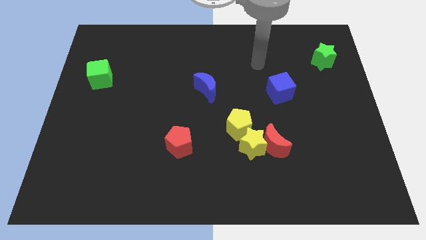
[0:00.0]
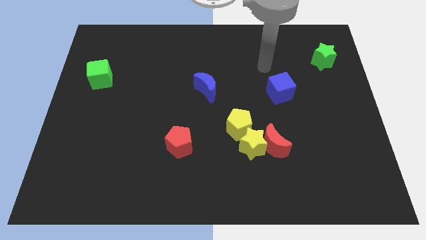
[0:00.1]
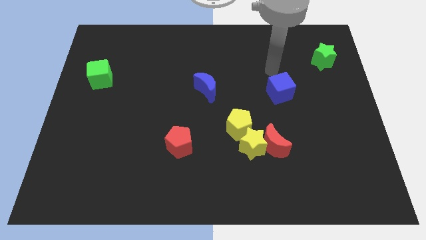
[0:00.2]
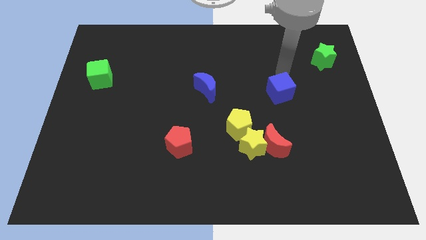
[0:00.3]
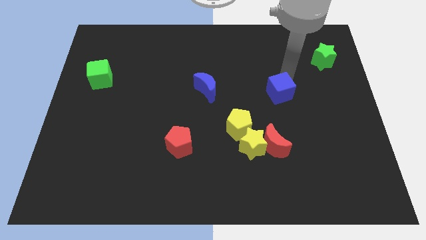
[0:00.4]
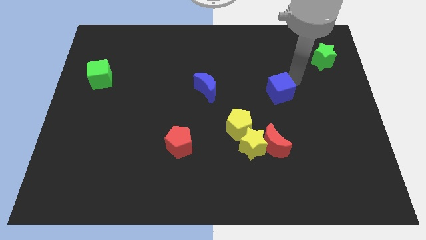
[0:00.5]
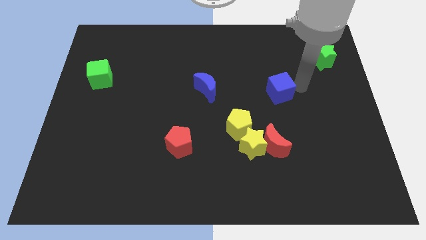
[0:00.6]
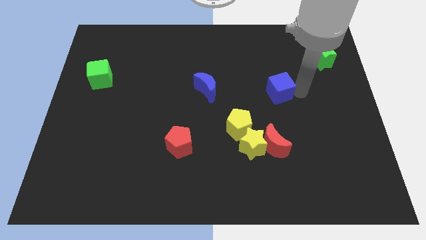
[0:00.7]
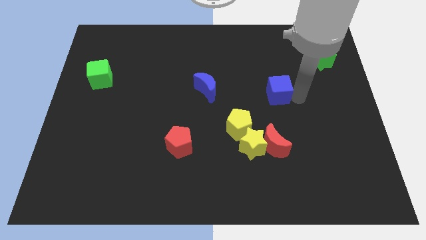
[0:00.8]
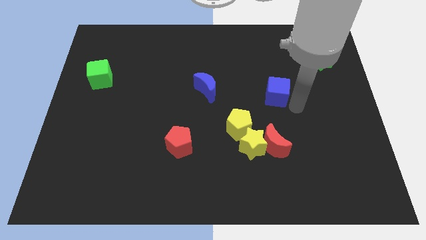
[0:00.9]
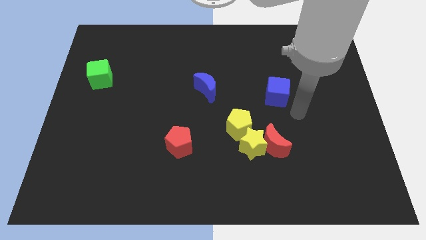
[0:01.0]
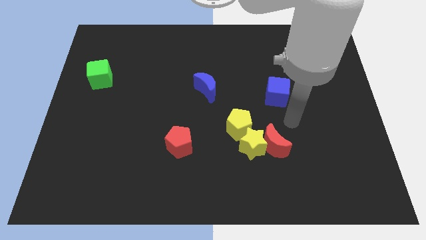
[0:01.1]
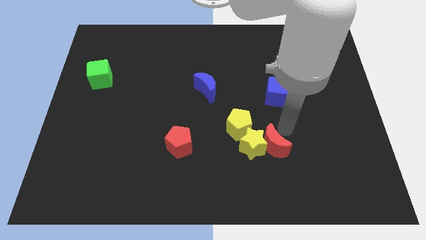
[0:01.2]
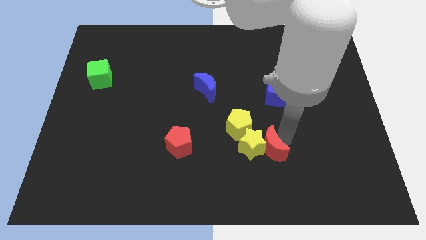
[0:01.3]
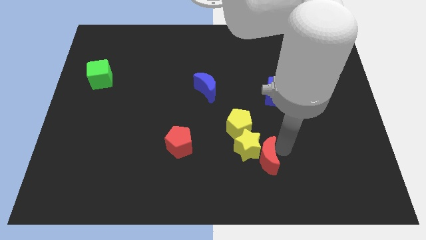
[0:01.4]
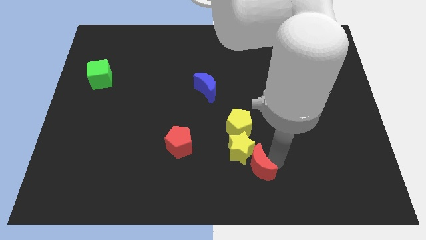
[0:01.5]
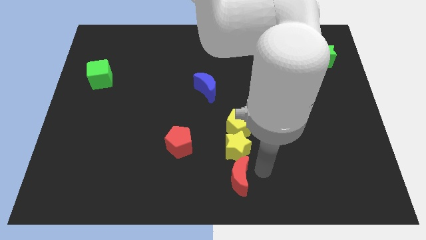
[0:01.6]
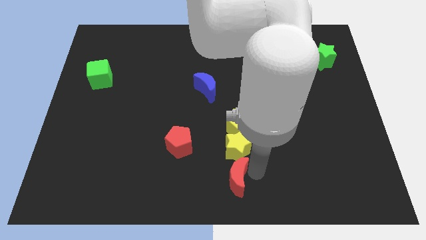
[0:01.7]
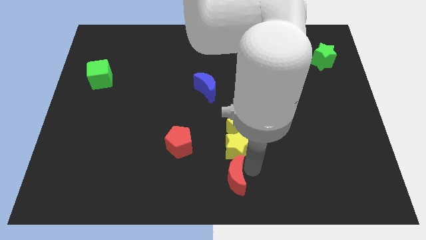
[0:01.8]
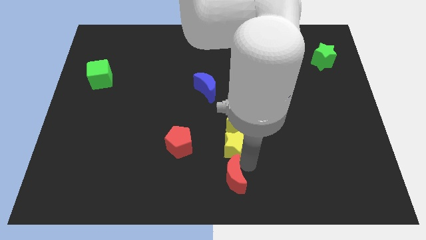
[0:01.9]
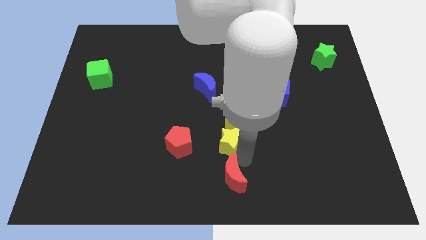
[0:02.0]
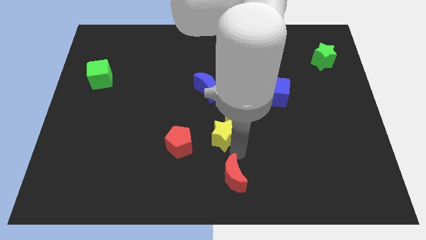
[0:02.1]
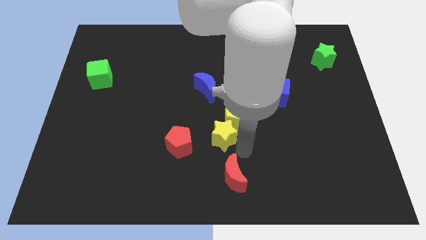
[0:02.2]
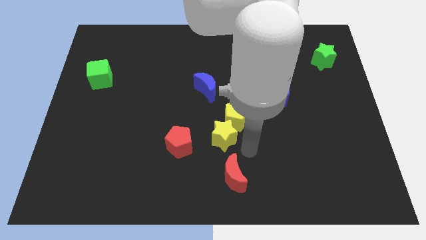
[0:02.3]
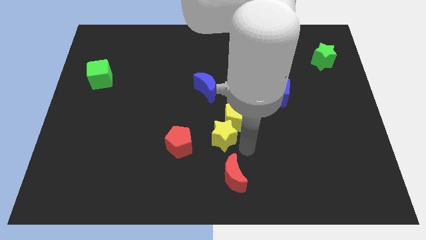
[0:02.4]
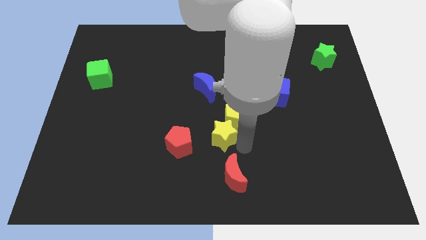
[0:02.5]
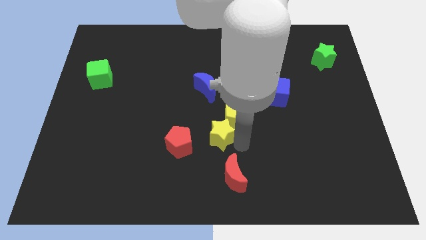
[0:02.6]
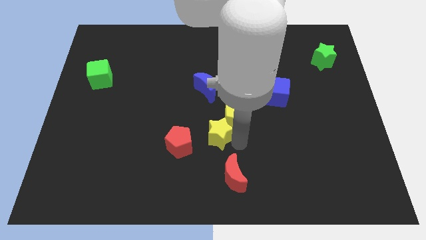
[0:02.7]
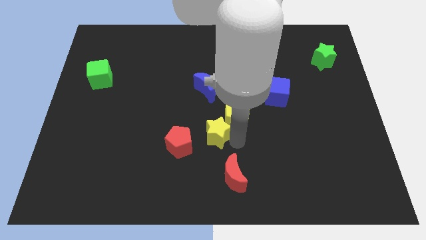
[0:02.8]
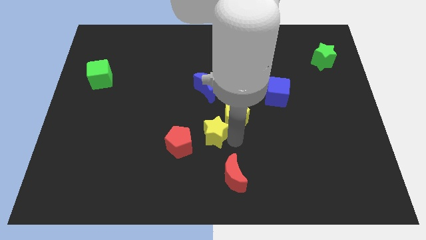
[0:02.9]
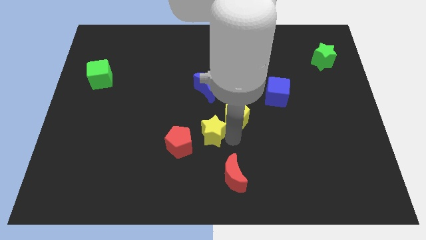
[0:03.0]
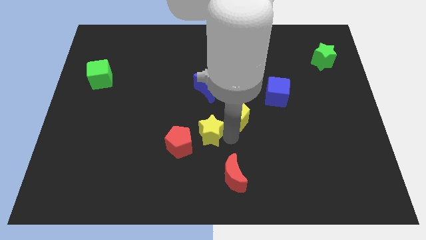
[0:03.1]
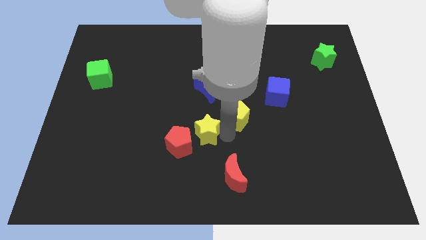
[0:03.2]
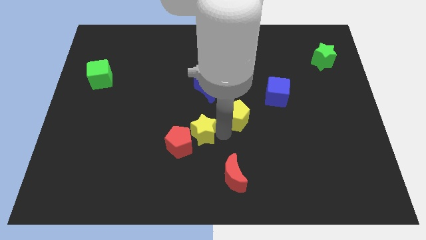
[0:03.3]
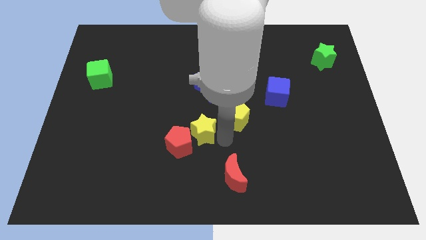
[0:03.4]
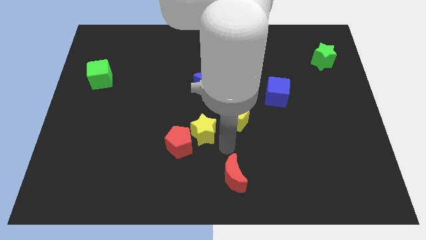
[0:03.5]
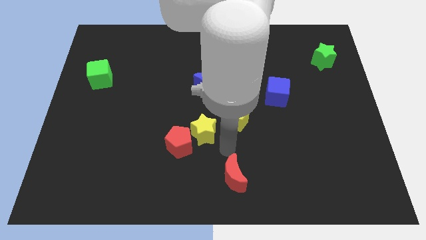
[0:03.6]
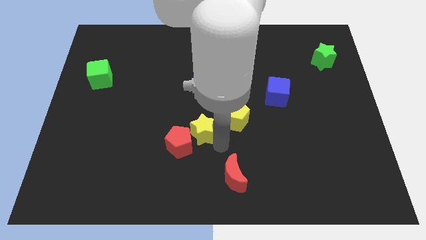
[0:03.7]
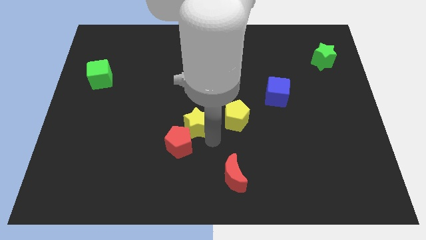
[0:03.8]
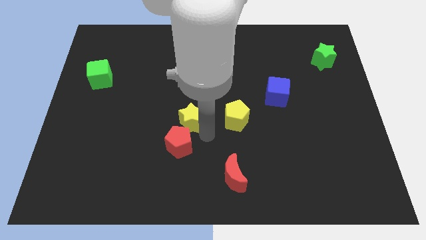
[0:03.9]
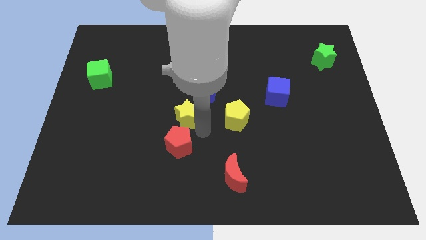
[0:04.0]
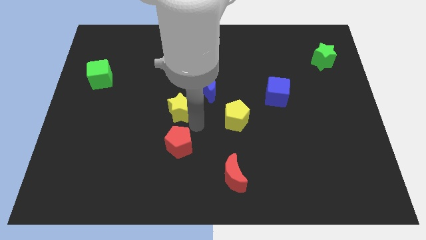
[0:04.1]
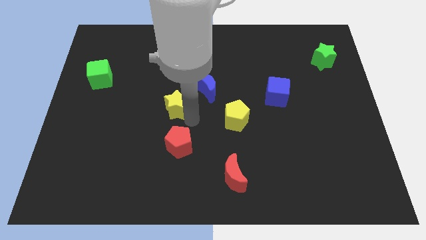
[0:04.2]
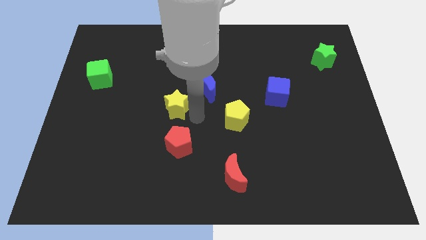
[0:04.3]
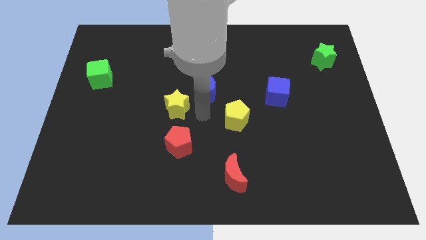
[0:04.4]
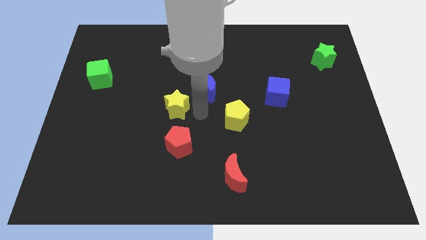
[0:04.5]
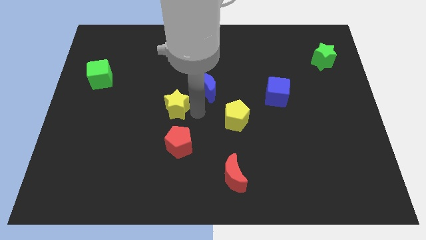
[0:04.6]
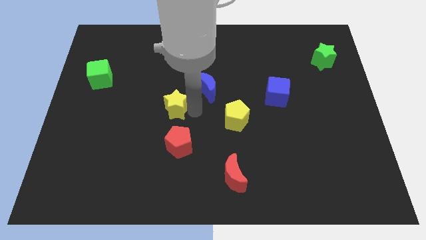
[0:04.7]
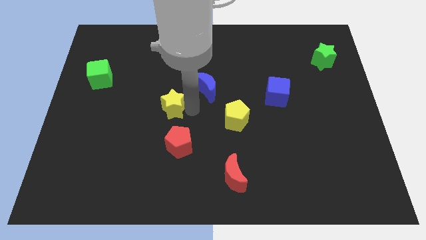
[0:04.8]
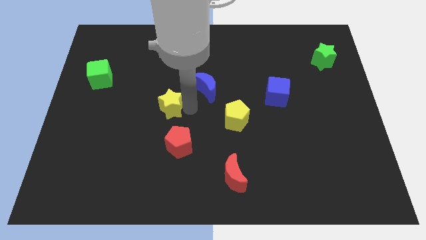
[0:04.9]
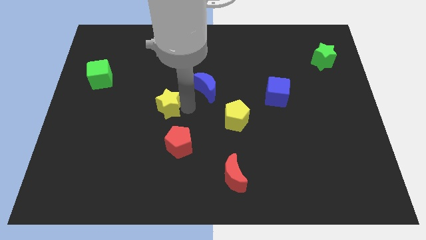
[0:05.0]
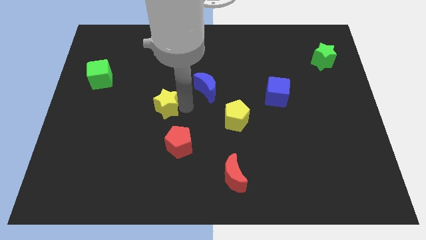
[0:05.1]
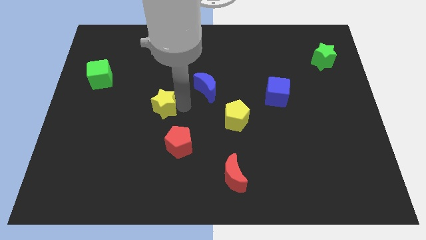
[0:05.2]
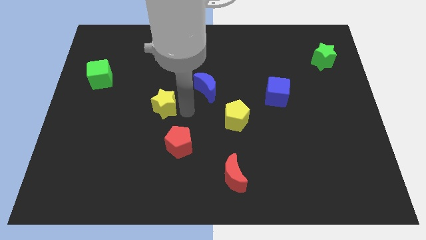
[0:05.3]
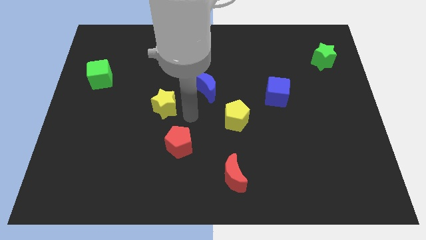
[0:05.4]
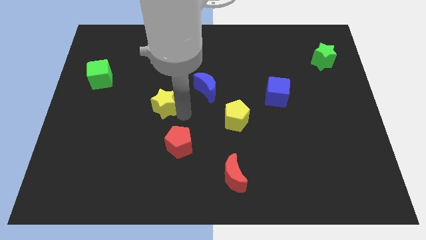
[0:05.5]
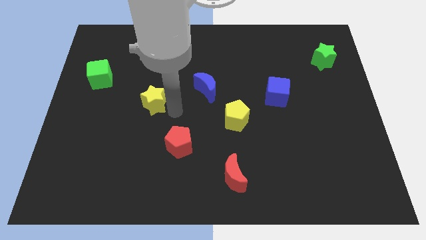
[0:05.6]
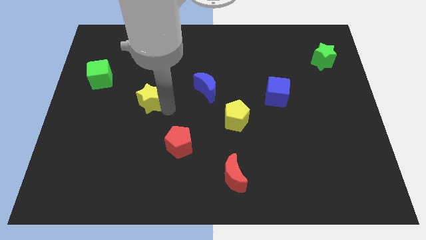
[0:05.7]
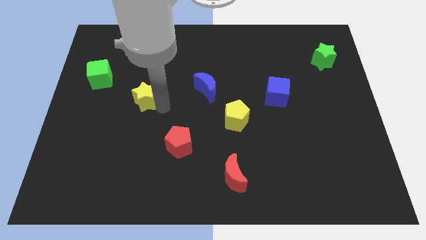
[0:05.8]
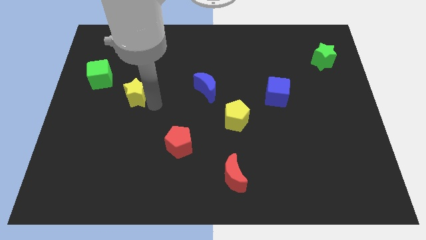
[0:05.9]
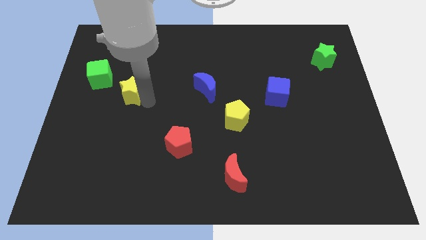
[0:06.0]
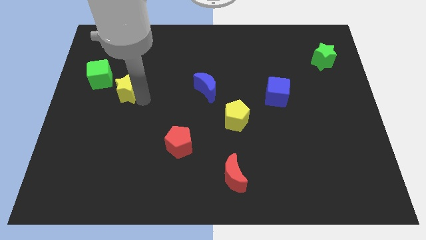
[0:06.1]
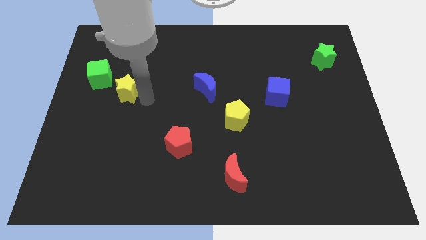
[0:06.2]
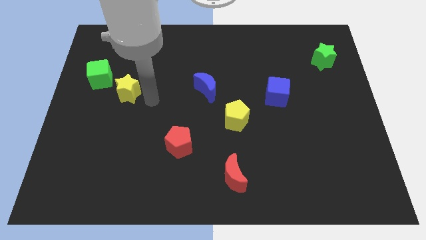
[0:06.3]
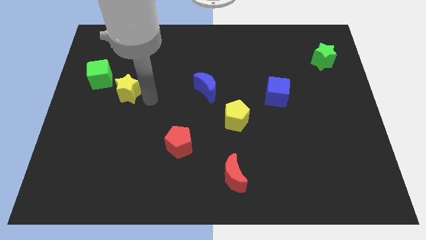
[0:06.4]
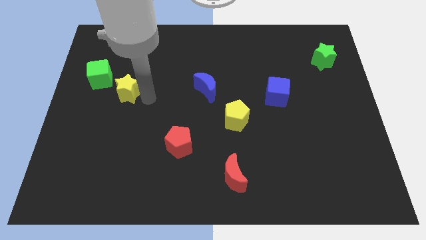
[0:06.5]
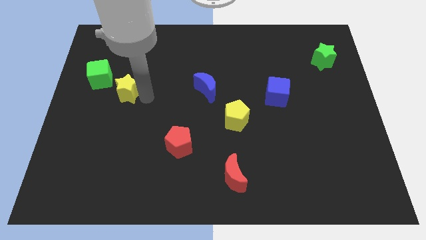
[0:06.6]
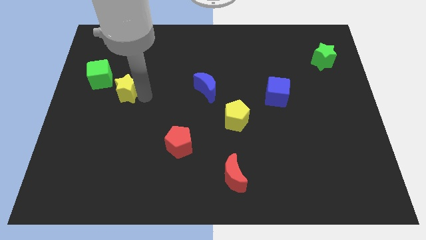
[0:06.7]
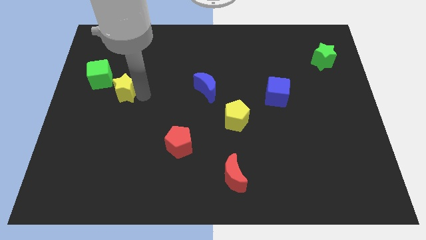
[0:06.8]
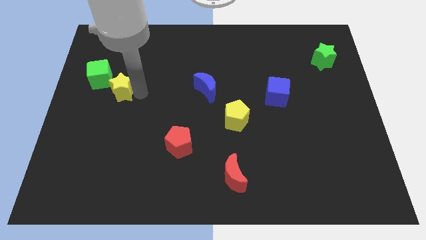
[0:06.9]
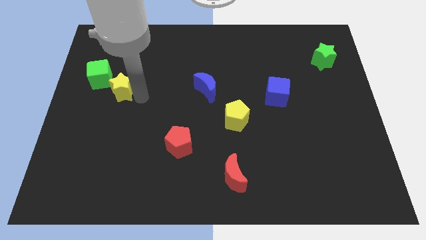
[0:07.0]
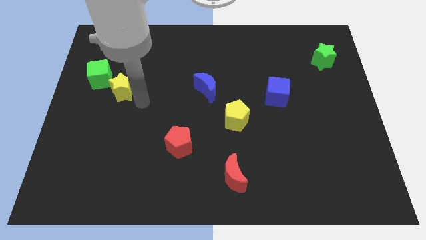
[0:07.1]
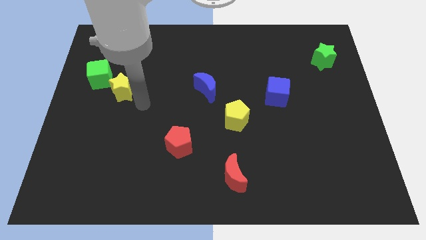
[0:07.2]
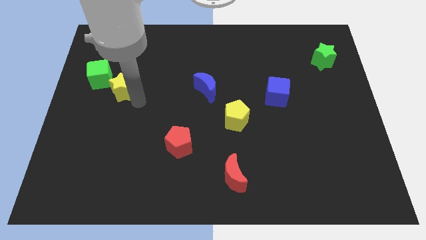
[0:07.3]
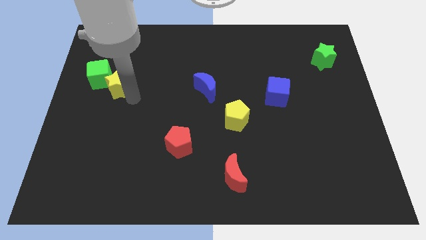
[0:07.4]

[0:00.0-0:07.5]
move the yellow star to the green cube
